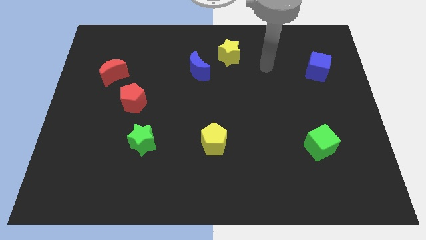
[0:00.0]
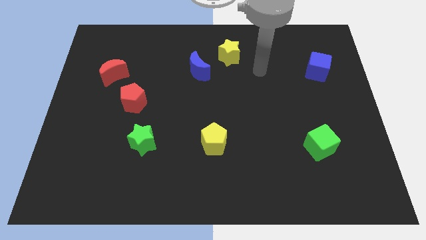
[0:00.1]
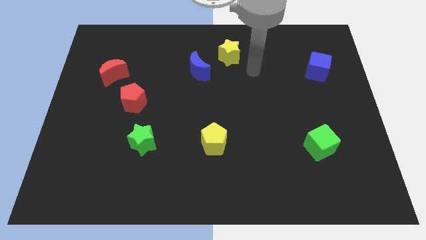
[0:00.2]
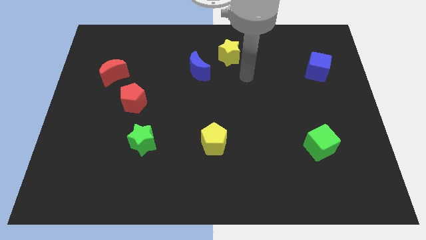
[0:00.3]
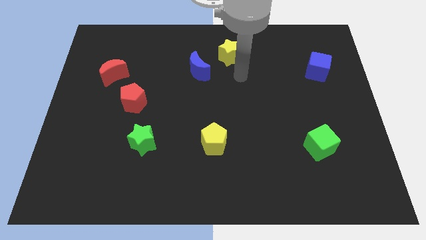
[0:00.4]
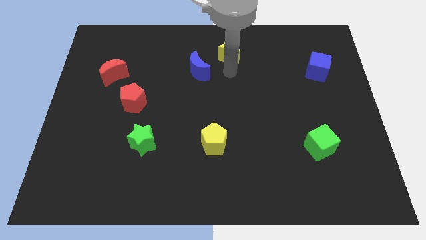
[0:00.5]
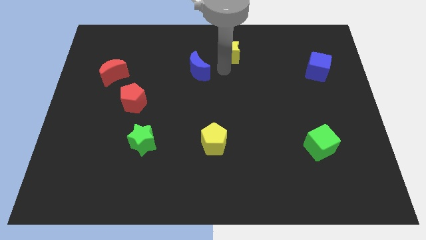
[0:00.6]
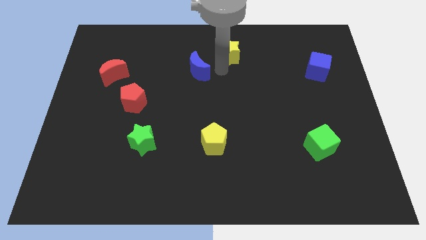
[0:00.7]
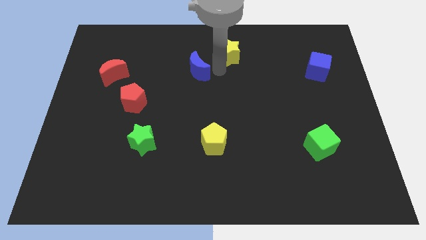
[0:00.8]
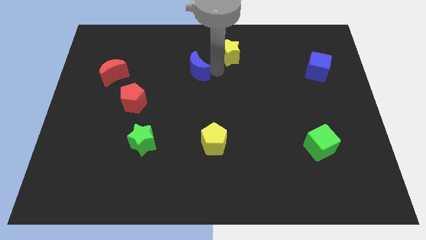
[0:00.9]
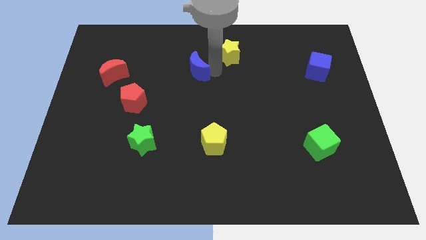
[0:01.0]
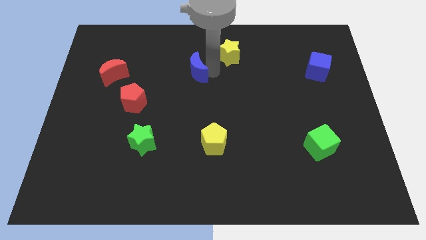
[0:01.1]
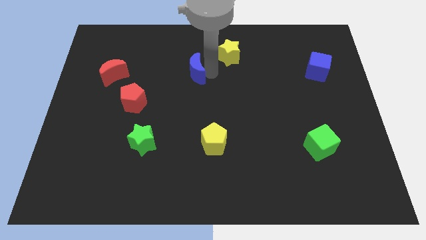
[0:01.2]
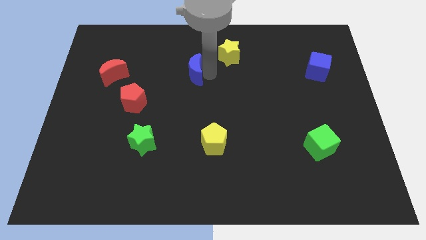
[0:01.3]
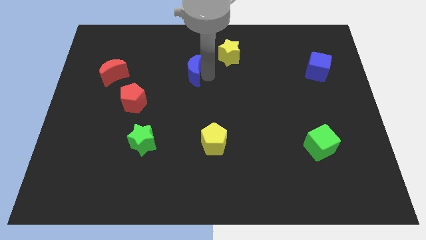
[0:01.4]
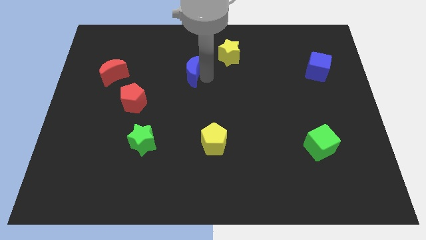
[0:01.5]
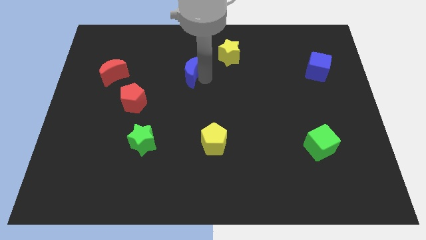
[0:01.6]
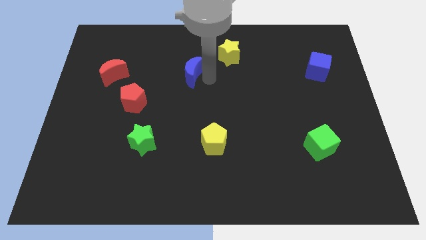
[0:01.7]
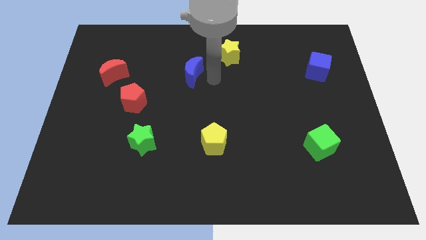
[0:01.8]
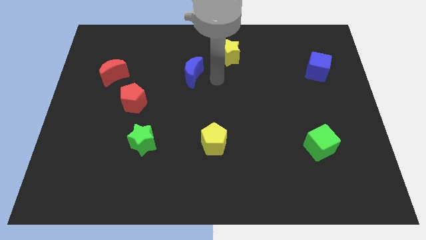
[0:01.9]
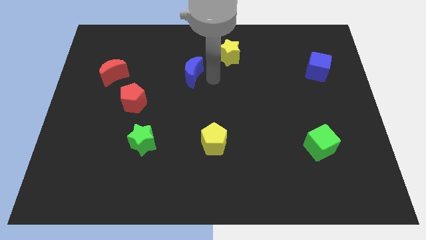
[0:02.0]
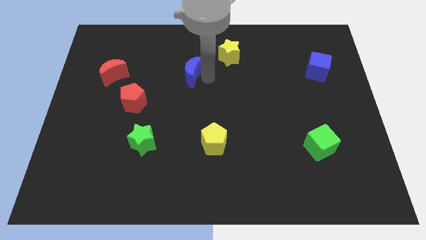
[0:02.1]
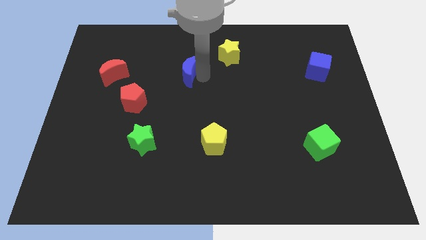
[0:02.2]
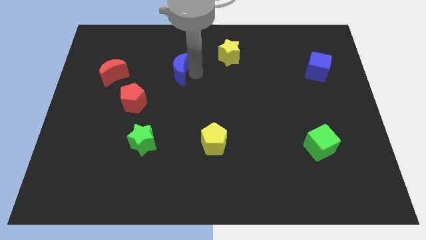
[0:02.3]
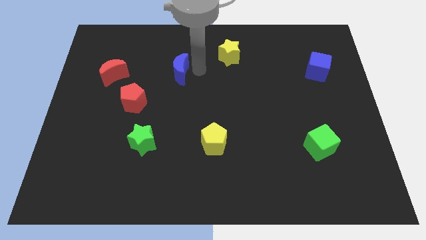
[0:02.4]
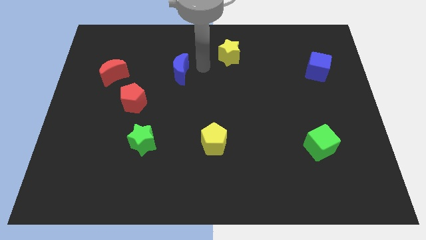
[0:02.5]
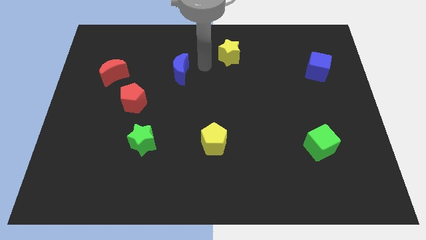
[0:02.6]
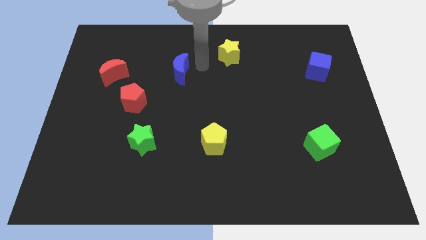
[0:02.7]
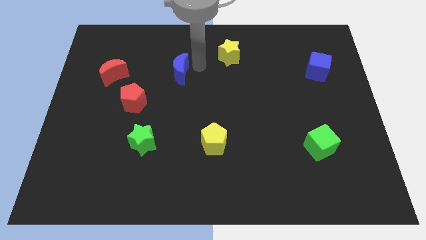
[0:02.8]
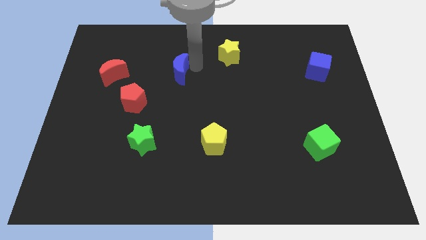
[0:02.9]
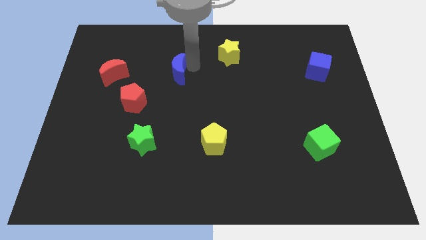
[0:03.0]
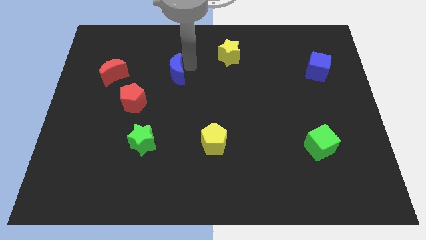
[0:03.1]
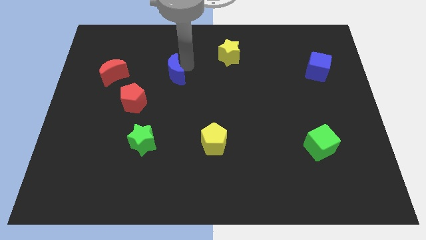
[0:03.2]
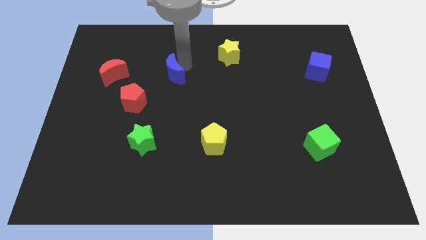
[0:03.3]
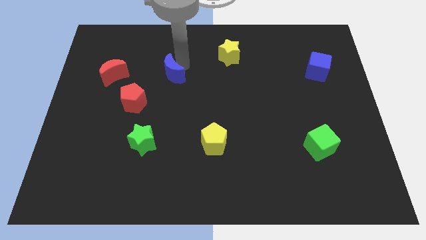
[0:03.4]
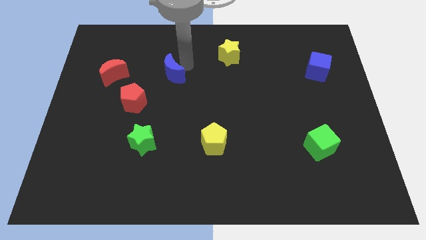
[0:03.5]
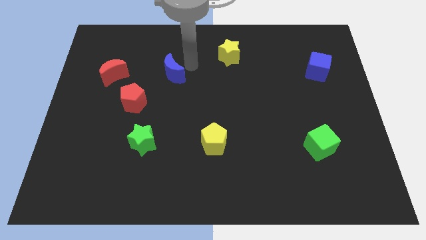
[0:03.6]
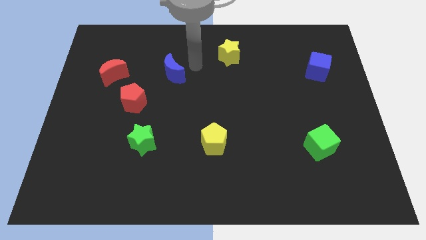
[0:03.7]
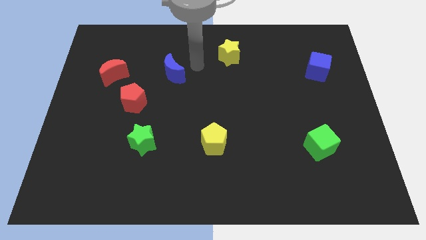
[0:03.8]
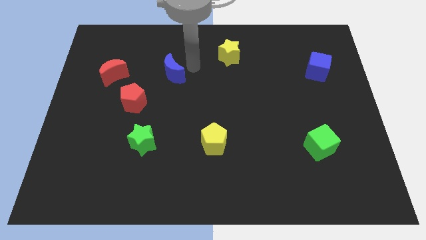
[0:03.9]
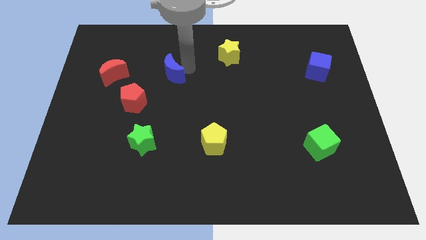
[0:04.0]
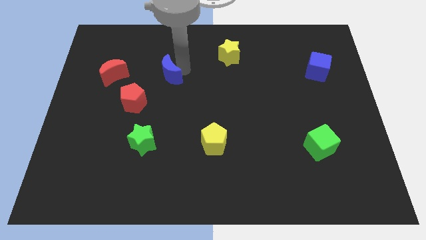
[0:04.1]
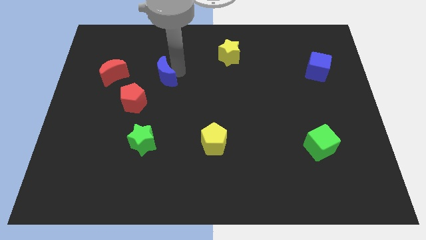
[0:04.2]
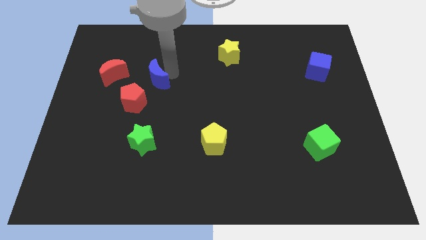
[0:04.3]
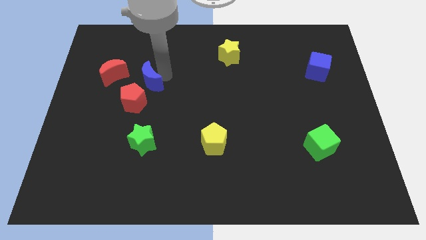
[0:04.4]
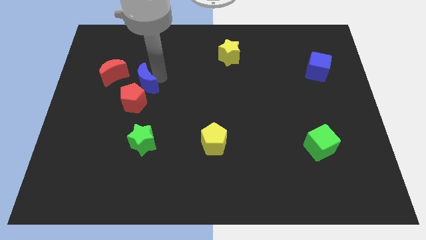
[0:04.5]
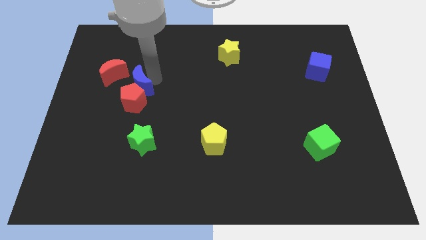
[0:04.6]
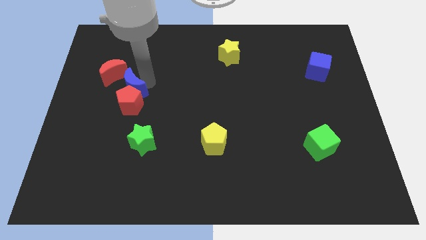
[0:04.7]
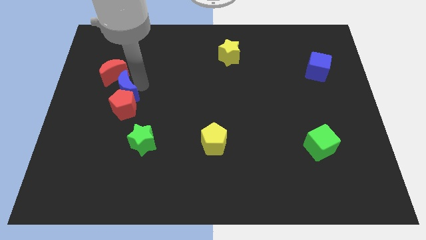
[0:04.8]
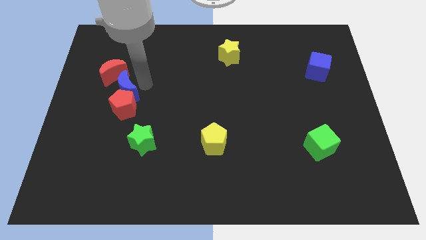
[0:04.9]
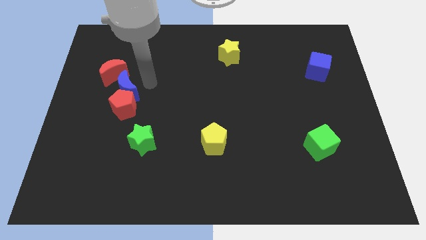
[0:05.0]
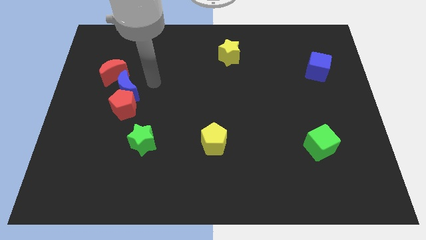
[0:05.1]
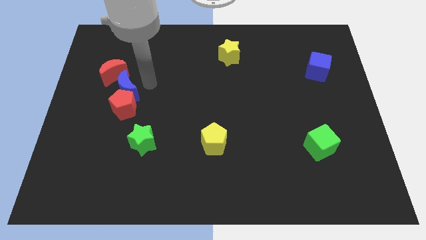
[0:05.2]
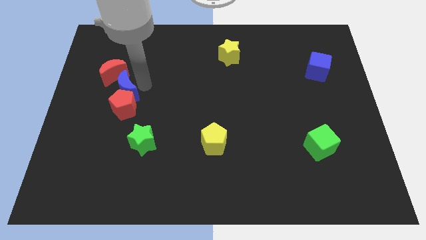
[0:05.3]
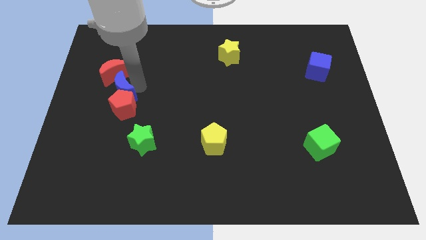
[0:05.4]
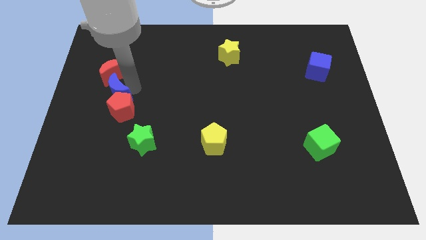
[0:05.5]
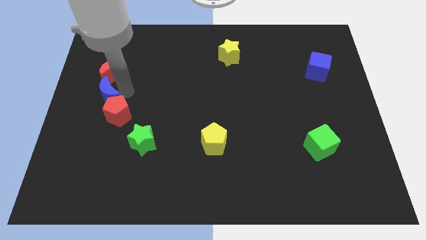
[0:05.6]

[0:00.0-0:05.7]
put the blue moon to the left side

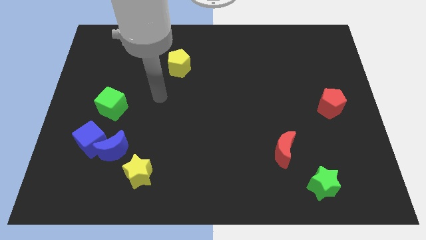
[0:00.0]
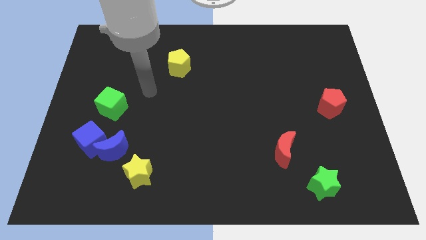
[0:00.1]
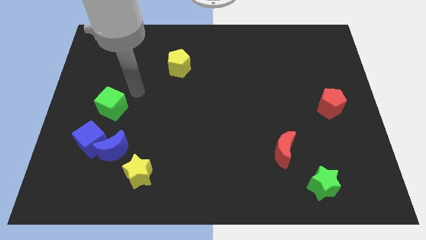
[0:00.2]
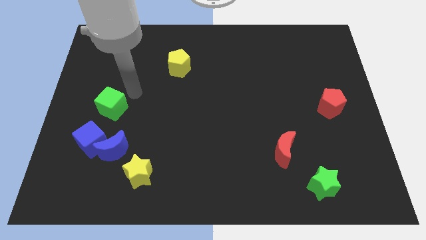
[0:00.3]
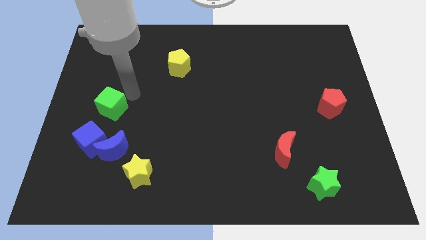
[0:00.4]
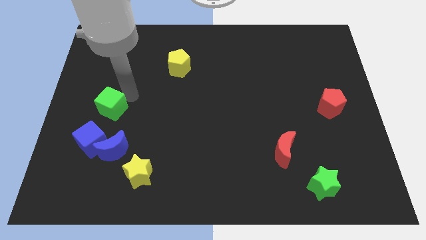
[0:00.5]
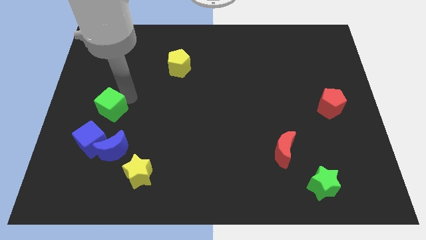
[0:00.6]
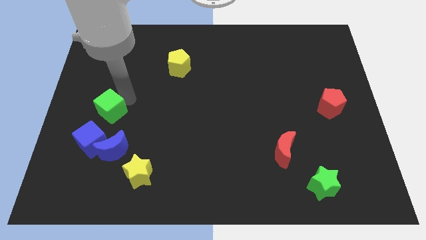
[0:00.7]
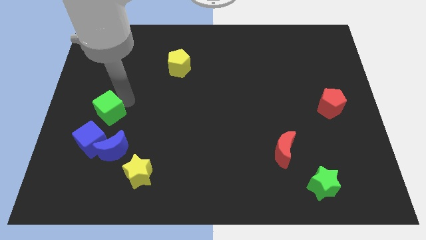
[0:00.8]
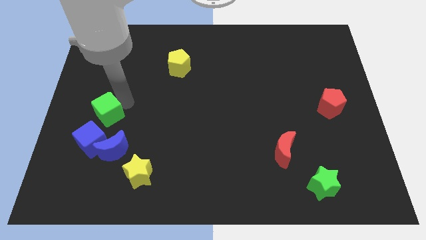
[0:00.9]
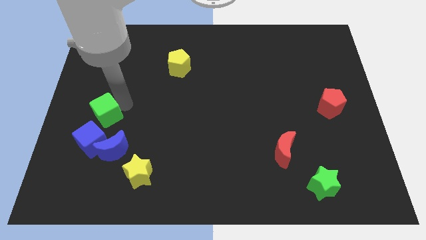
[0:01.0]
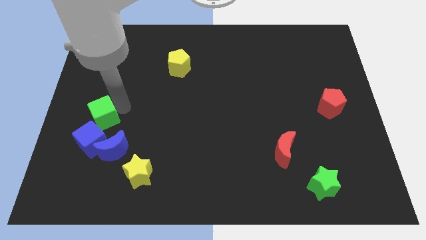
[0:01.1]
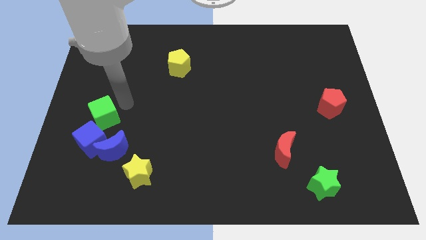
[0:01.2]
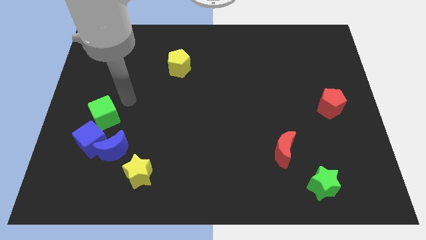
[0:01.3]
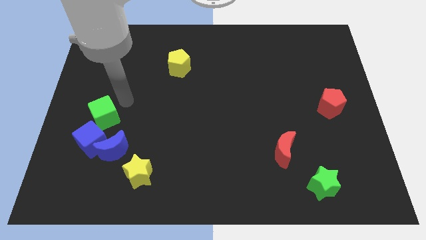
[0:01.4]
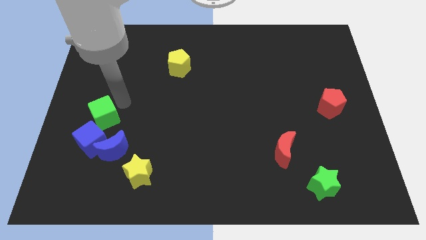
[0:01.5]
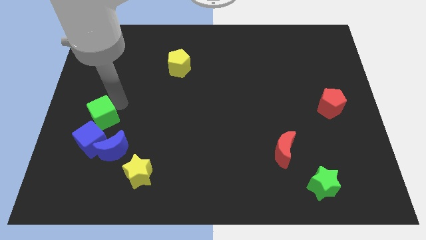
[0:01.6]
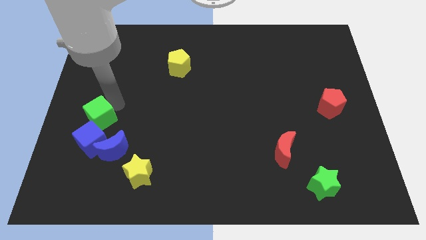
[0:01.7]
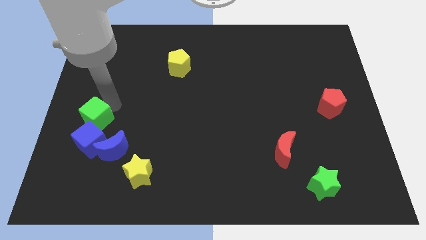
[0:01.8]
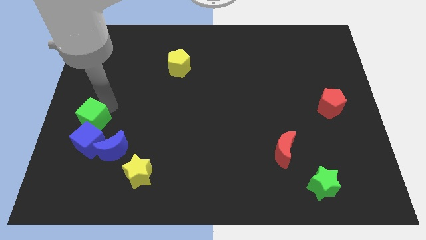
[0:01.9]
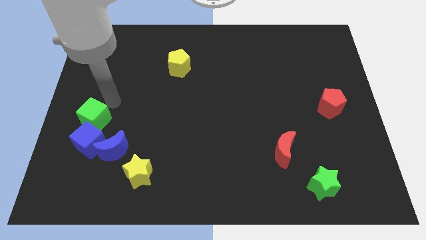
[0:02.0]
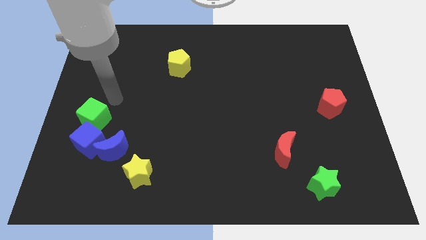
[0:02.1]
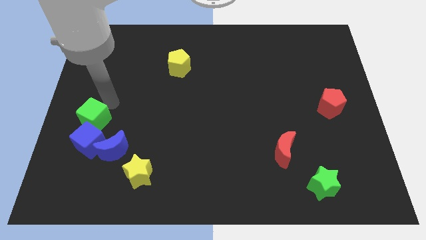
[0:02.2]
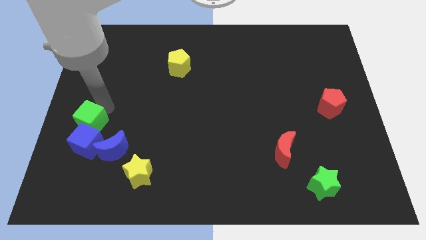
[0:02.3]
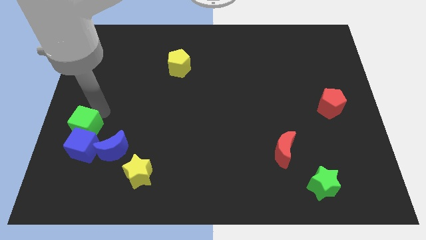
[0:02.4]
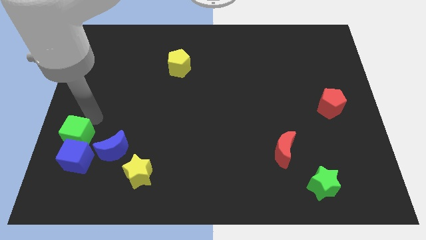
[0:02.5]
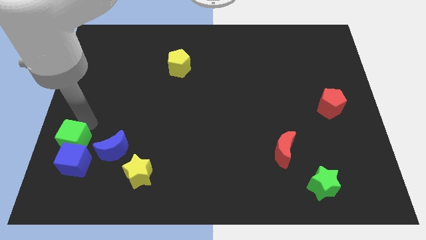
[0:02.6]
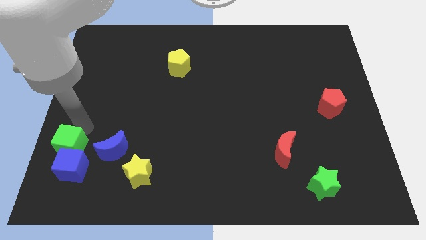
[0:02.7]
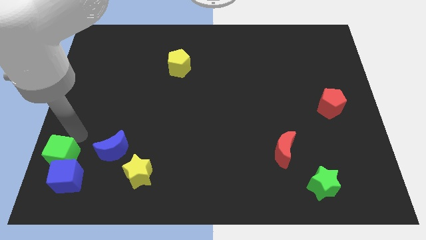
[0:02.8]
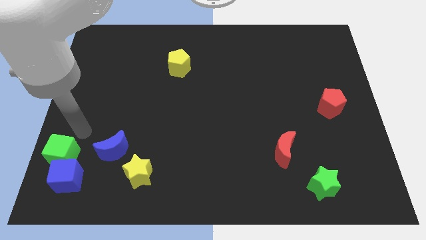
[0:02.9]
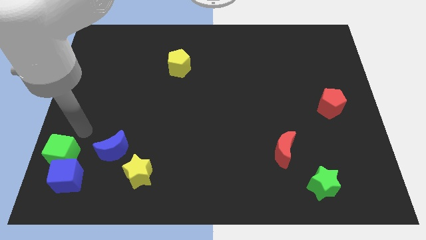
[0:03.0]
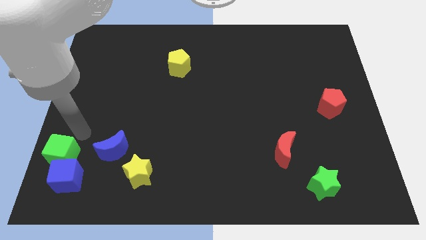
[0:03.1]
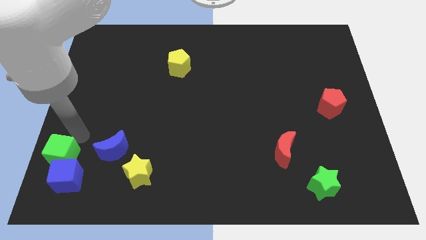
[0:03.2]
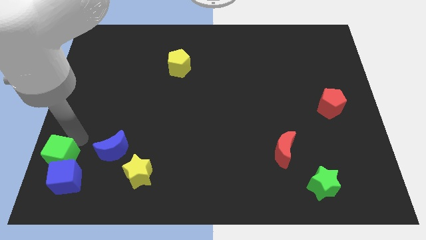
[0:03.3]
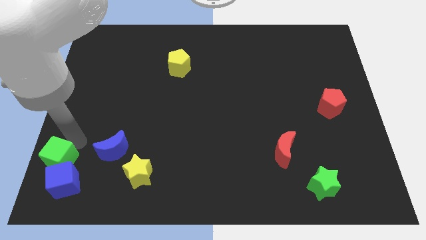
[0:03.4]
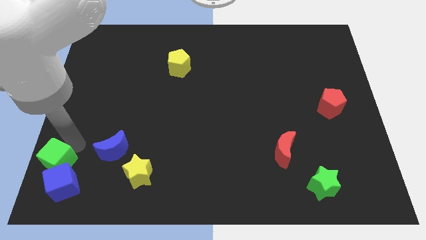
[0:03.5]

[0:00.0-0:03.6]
slide the green cube to the bottom left corner
